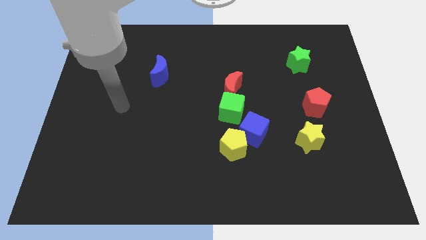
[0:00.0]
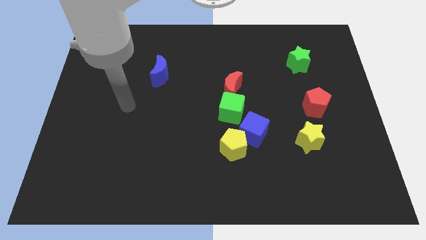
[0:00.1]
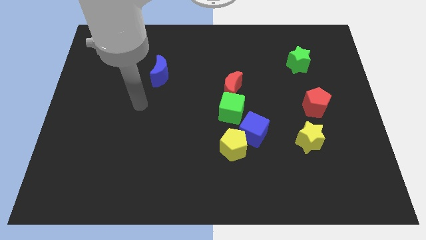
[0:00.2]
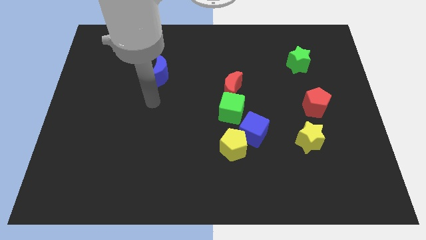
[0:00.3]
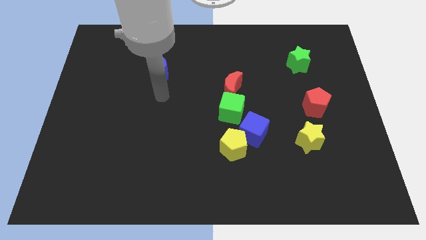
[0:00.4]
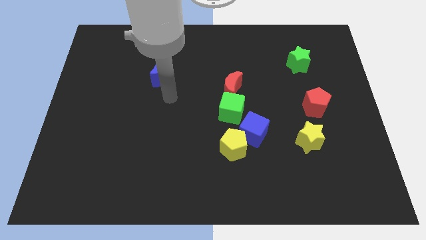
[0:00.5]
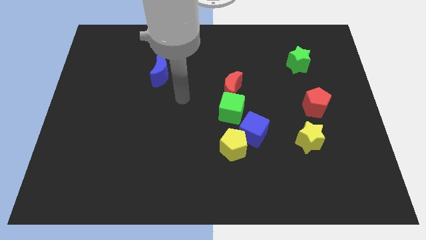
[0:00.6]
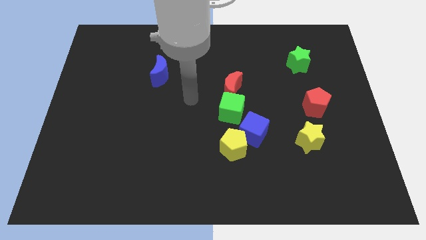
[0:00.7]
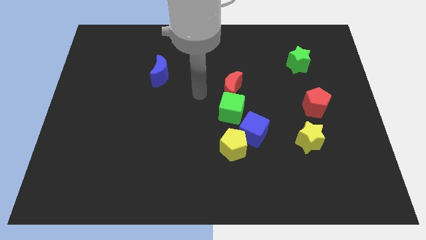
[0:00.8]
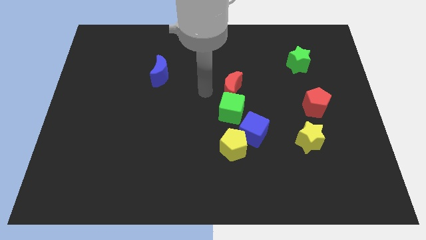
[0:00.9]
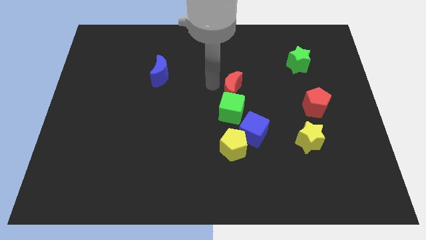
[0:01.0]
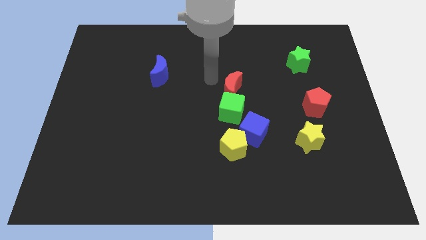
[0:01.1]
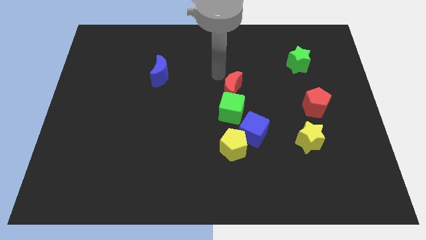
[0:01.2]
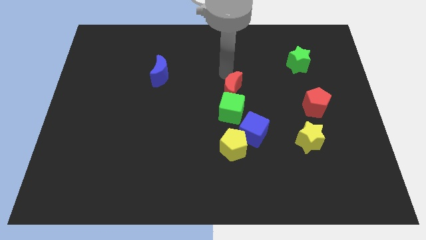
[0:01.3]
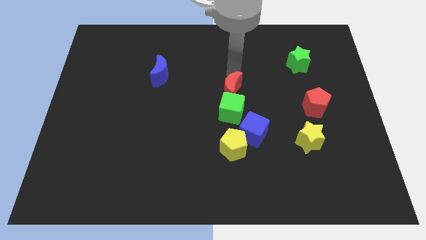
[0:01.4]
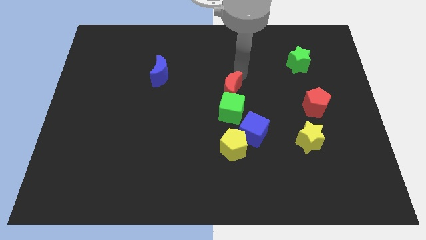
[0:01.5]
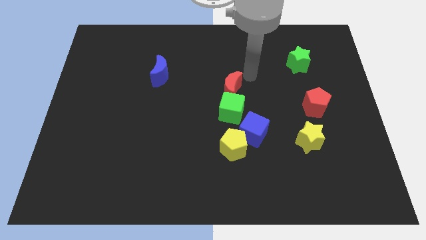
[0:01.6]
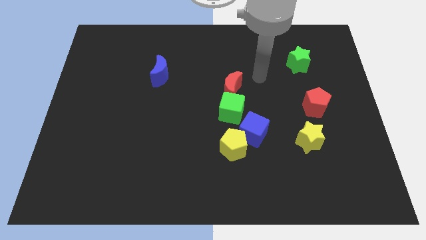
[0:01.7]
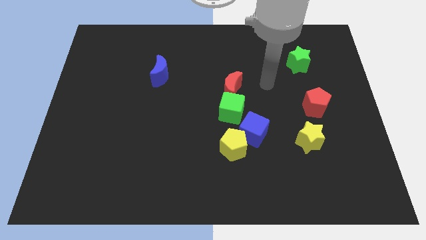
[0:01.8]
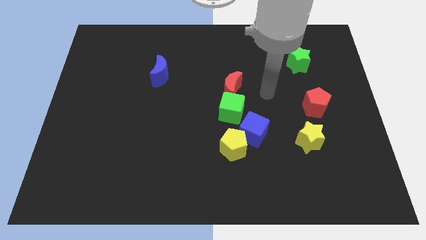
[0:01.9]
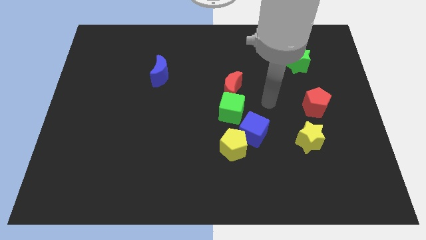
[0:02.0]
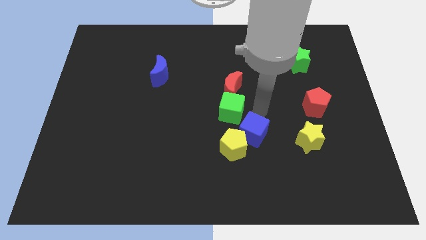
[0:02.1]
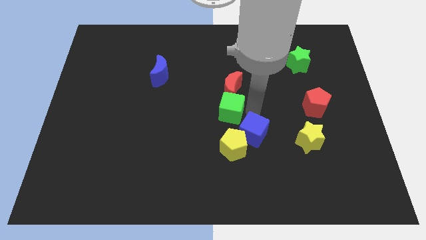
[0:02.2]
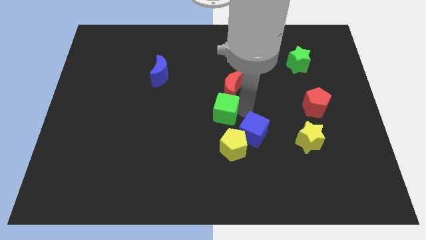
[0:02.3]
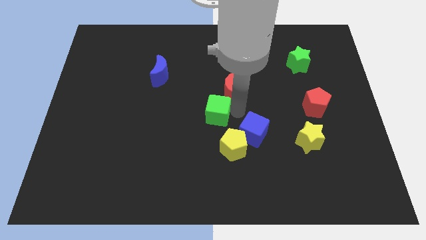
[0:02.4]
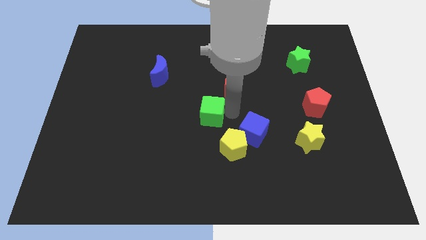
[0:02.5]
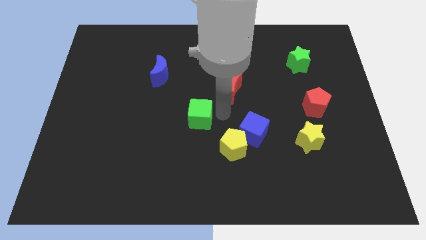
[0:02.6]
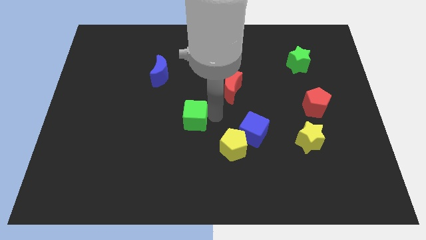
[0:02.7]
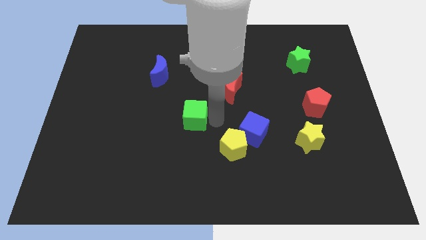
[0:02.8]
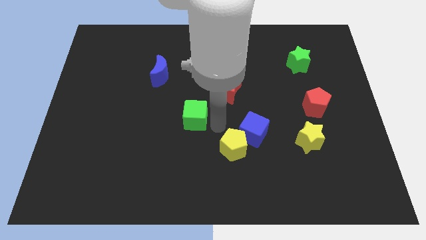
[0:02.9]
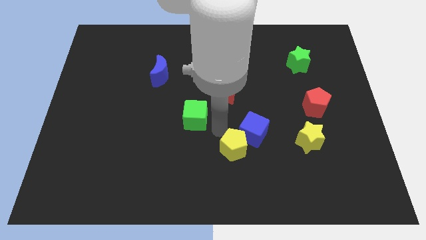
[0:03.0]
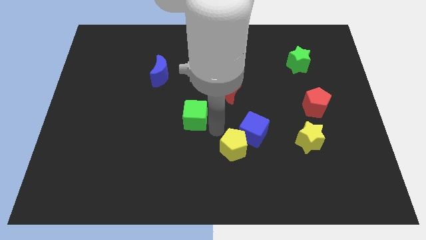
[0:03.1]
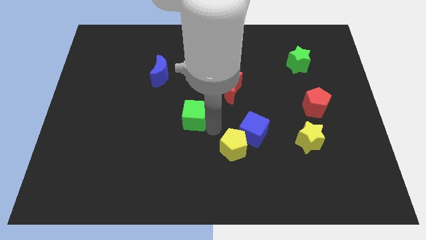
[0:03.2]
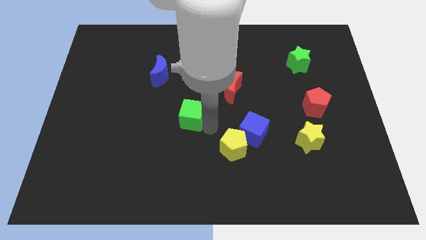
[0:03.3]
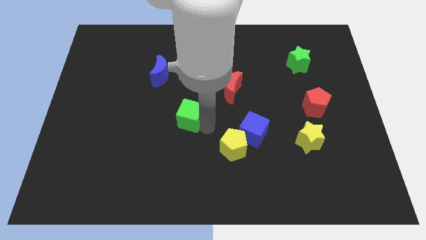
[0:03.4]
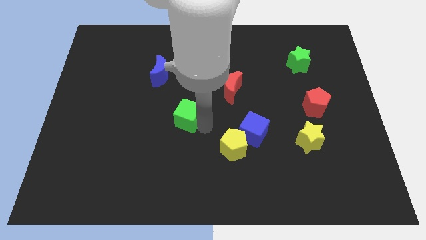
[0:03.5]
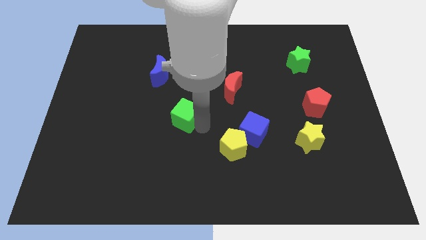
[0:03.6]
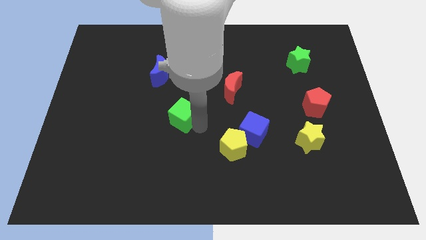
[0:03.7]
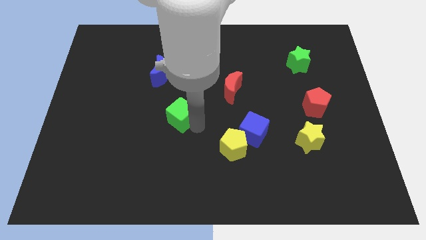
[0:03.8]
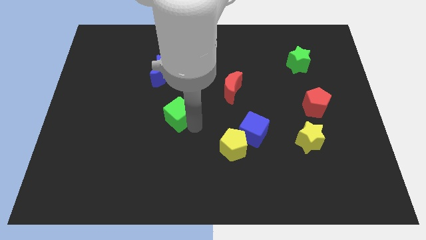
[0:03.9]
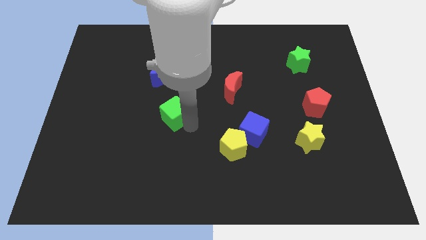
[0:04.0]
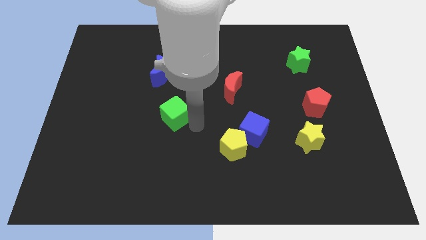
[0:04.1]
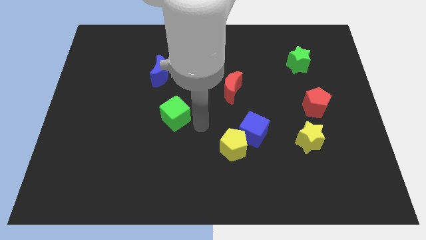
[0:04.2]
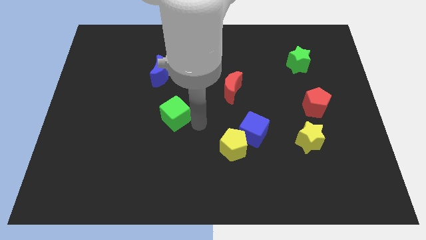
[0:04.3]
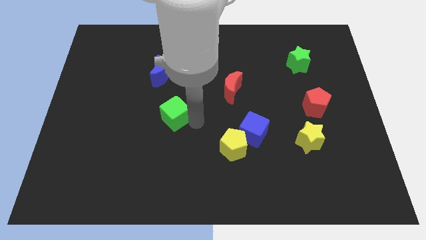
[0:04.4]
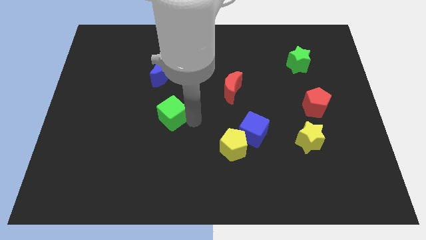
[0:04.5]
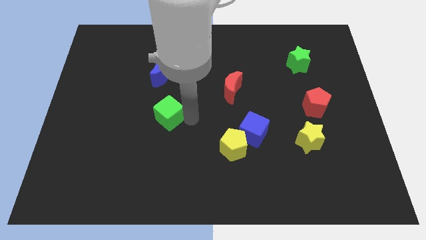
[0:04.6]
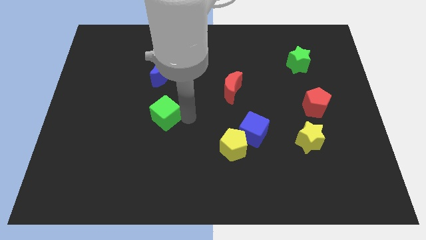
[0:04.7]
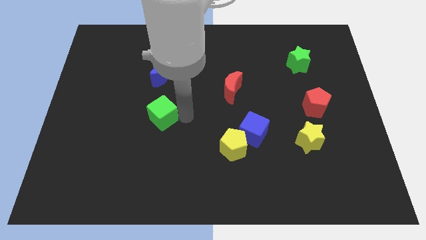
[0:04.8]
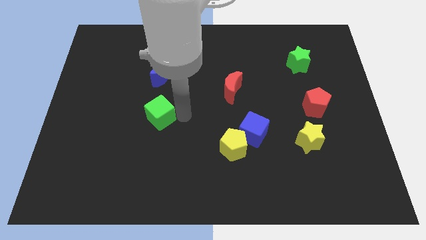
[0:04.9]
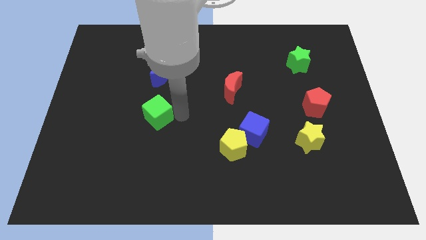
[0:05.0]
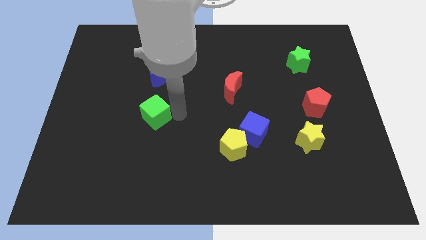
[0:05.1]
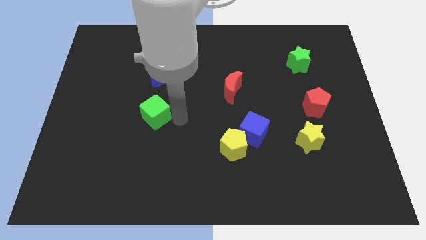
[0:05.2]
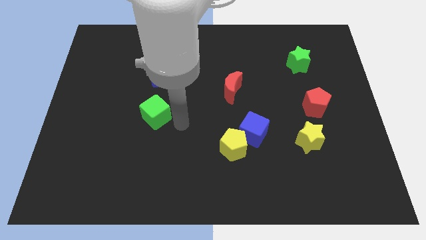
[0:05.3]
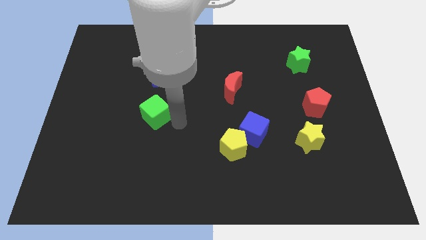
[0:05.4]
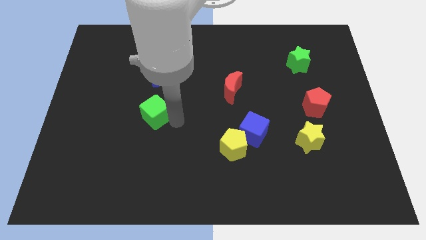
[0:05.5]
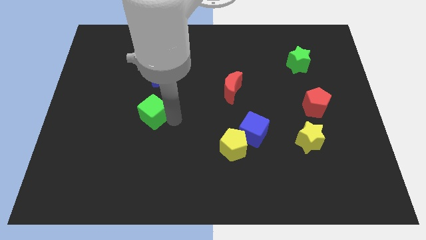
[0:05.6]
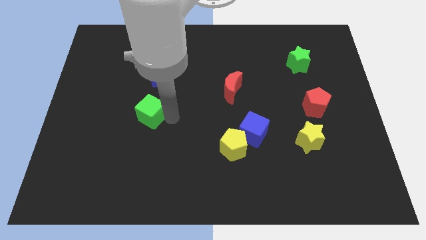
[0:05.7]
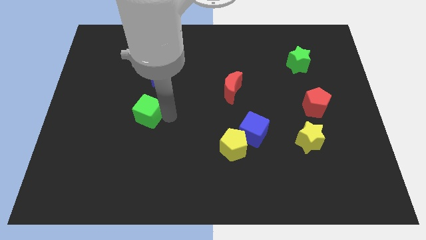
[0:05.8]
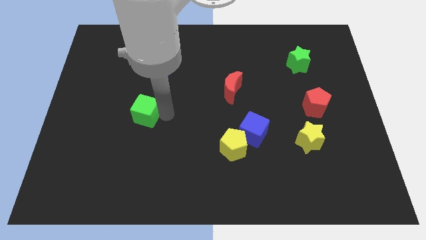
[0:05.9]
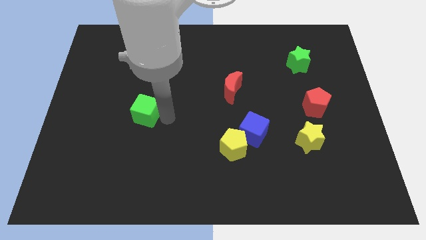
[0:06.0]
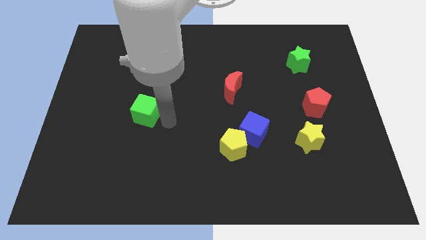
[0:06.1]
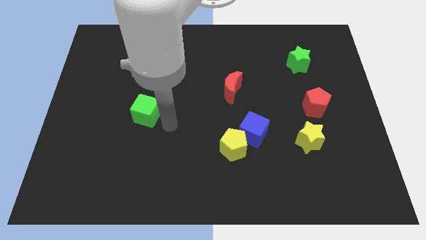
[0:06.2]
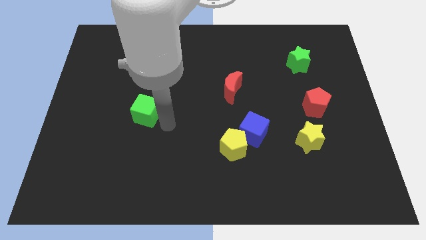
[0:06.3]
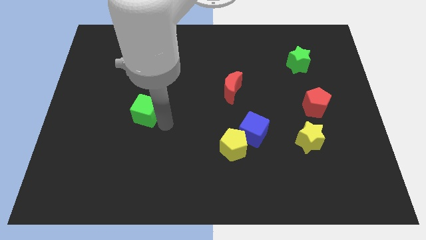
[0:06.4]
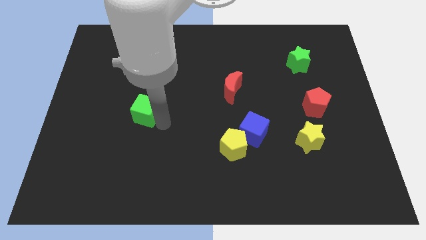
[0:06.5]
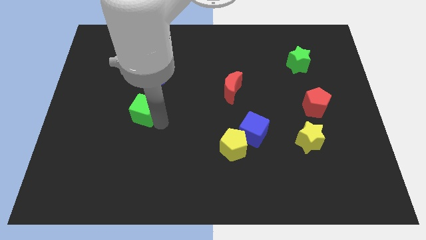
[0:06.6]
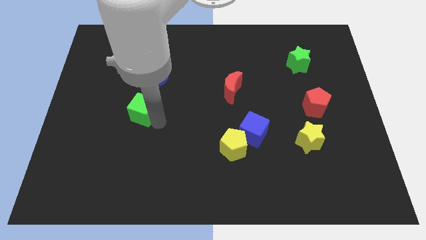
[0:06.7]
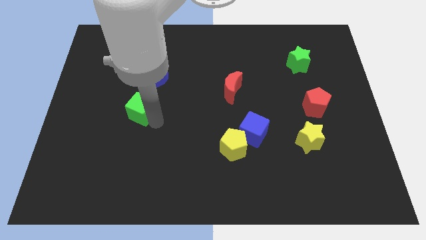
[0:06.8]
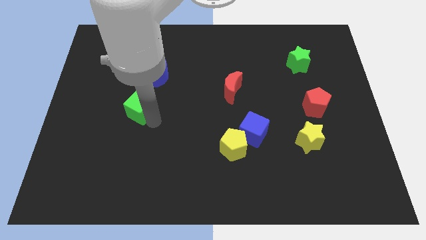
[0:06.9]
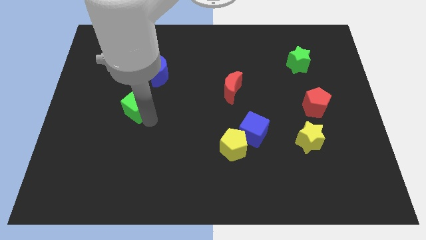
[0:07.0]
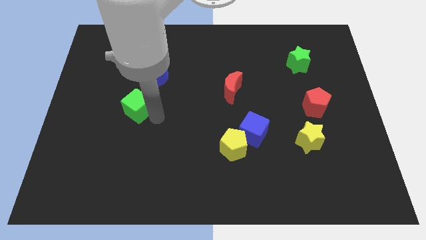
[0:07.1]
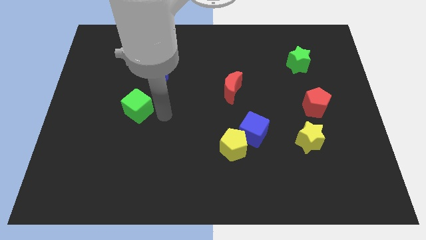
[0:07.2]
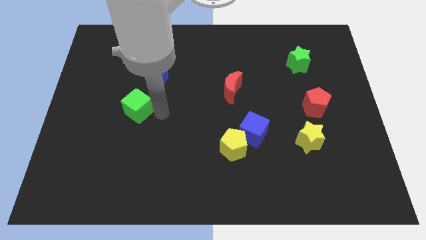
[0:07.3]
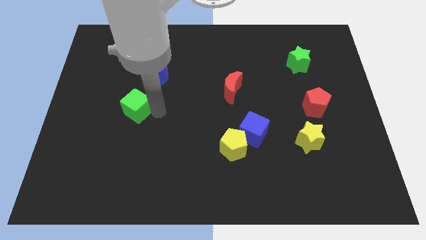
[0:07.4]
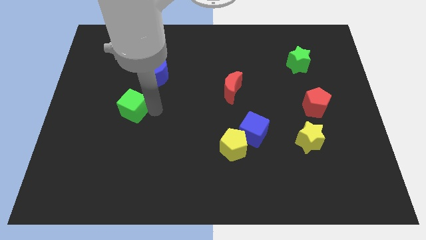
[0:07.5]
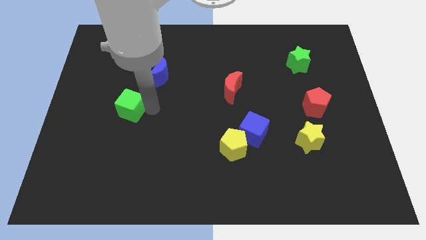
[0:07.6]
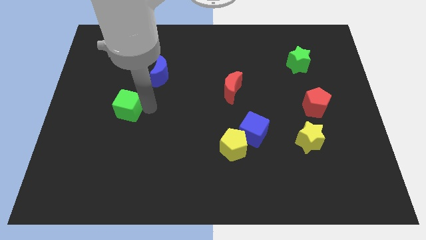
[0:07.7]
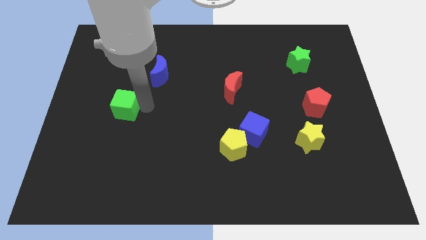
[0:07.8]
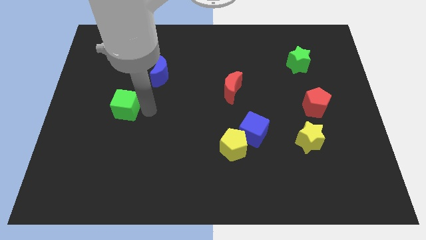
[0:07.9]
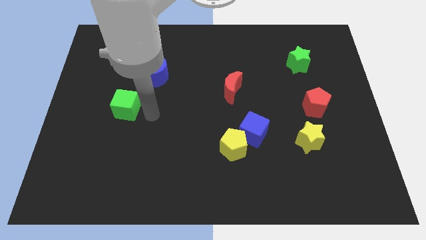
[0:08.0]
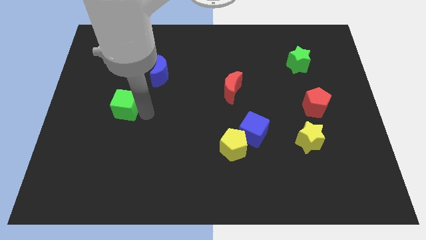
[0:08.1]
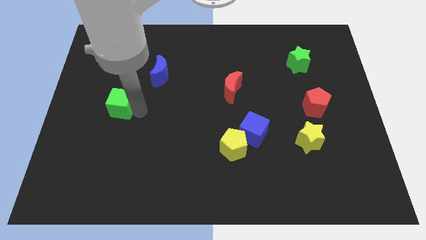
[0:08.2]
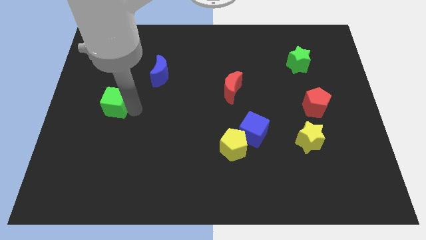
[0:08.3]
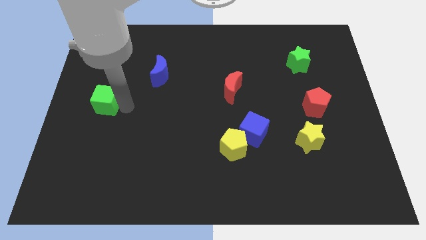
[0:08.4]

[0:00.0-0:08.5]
put the green cube to the center left

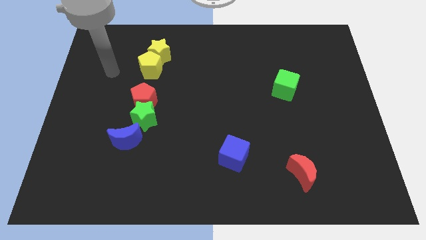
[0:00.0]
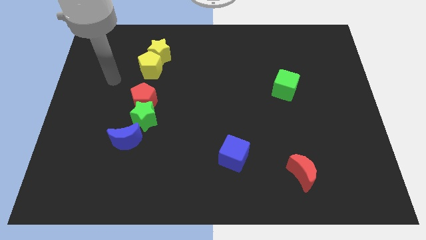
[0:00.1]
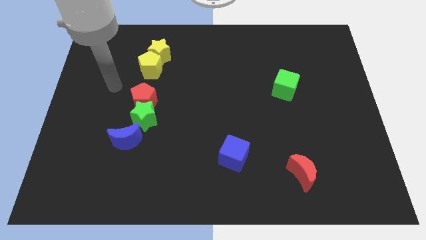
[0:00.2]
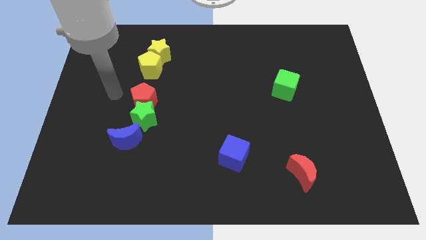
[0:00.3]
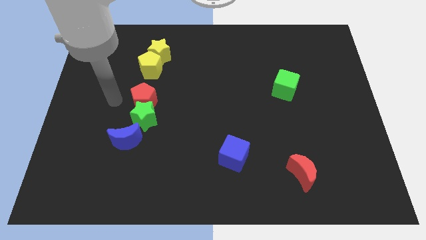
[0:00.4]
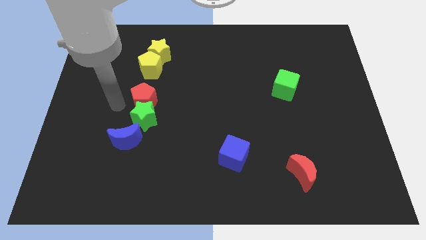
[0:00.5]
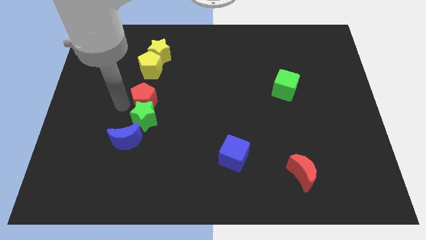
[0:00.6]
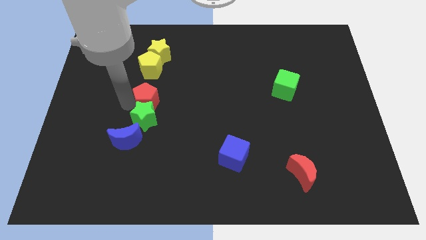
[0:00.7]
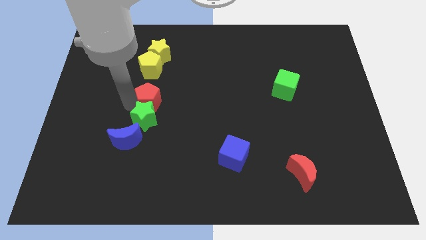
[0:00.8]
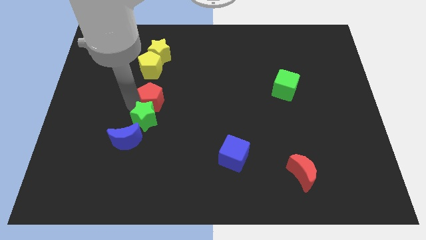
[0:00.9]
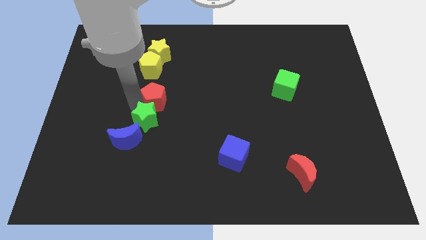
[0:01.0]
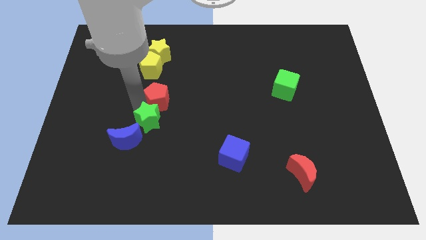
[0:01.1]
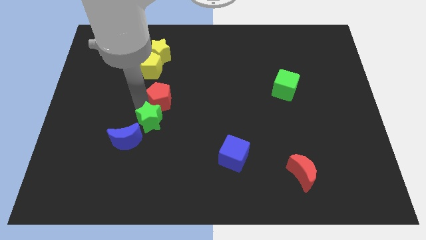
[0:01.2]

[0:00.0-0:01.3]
put the red pentagon to the center
